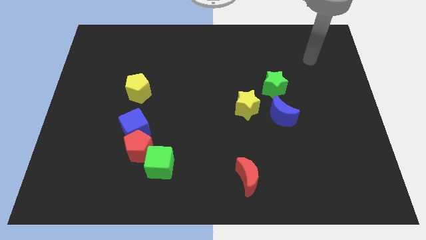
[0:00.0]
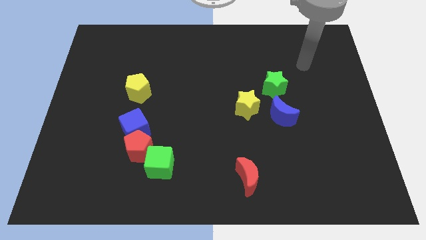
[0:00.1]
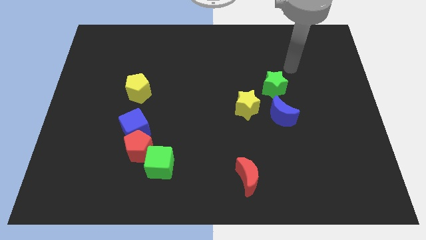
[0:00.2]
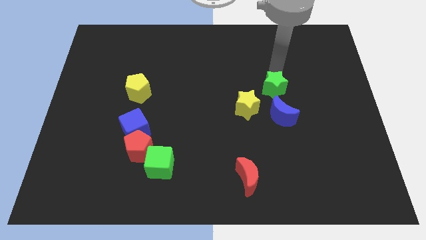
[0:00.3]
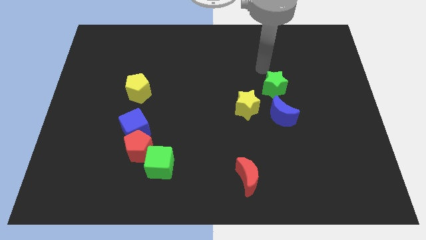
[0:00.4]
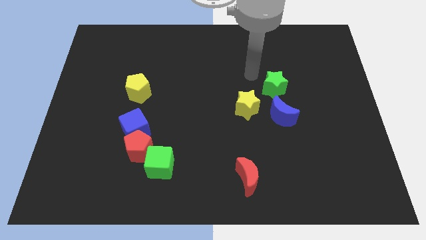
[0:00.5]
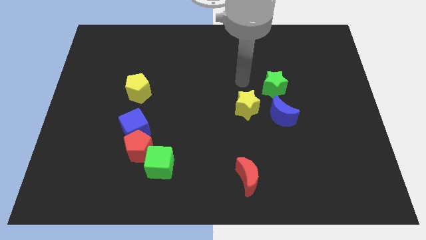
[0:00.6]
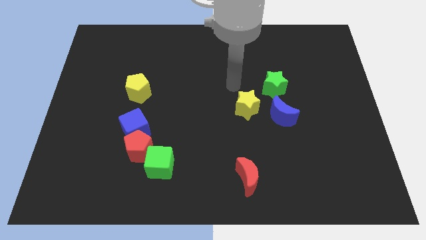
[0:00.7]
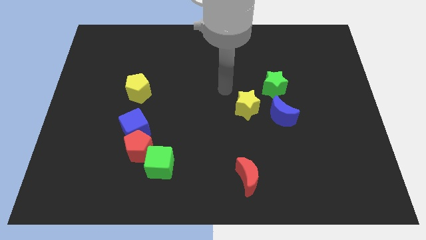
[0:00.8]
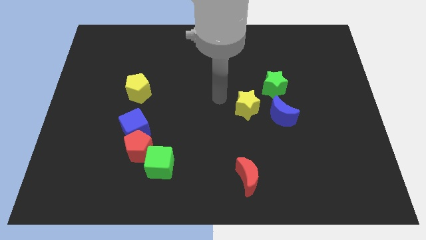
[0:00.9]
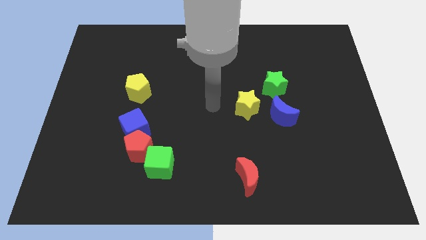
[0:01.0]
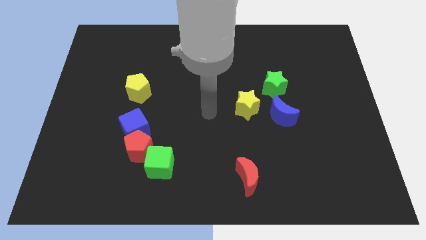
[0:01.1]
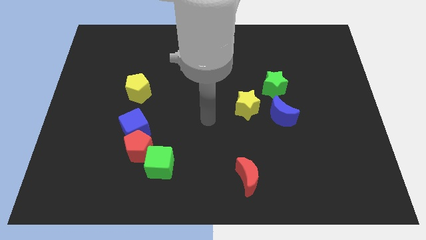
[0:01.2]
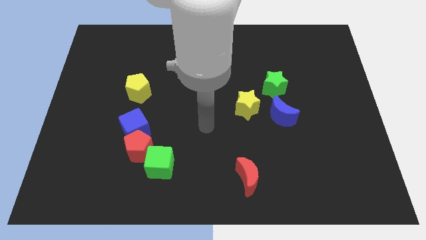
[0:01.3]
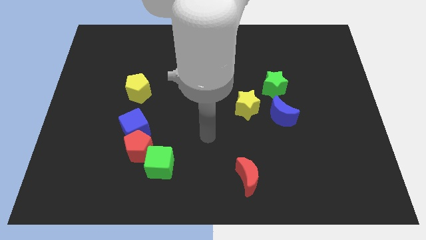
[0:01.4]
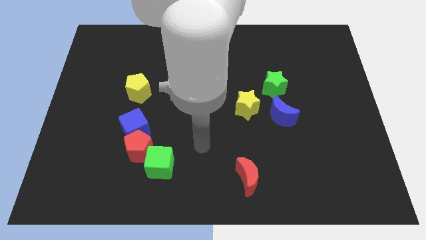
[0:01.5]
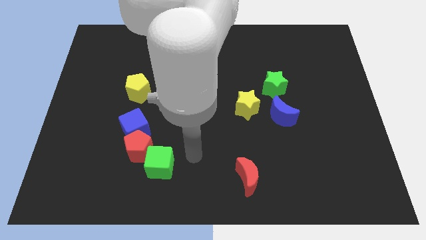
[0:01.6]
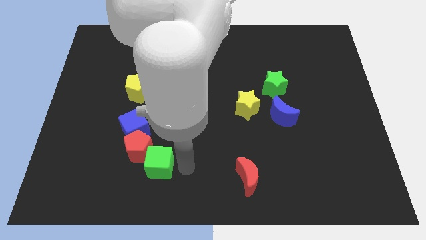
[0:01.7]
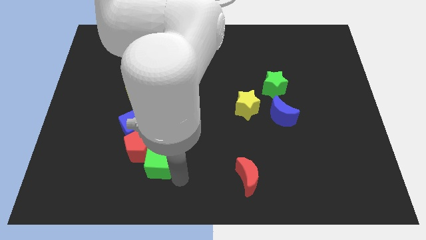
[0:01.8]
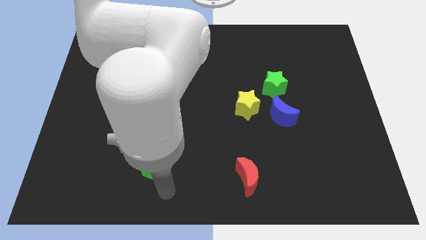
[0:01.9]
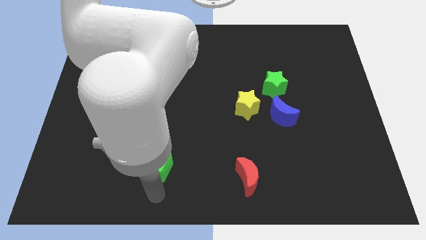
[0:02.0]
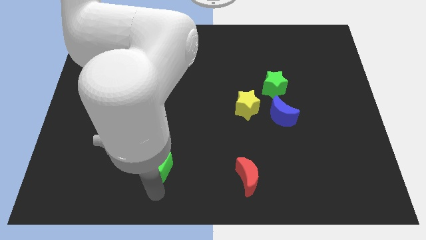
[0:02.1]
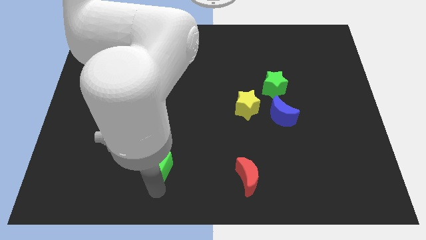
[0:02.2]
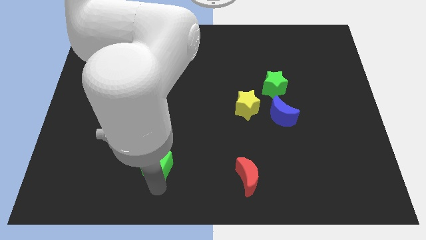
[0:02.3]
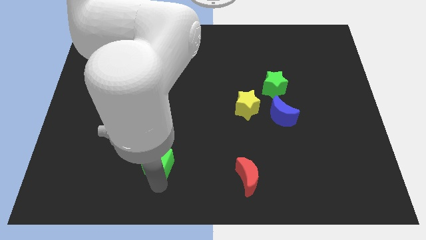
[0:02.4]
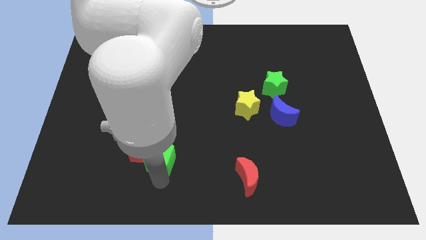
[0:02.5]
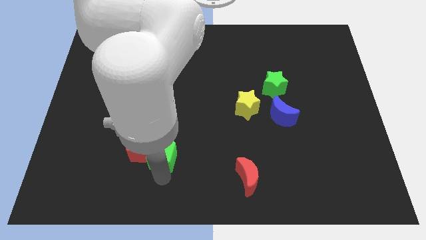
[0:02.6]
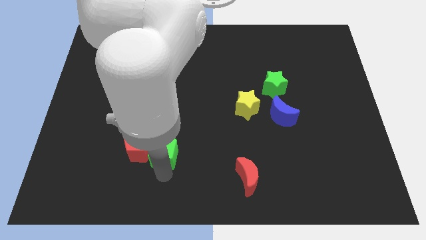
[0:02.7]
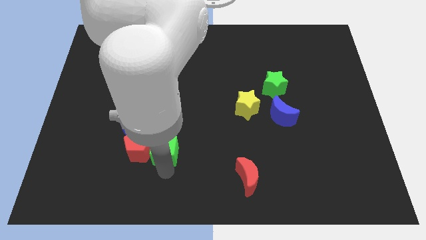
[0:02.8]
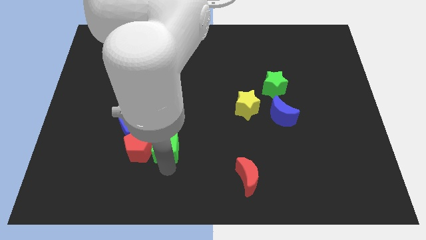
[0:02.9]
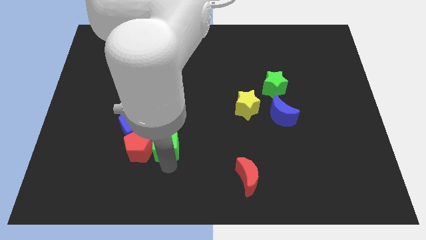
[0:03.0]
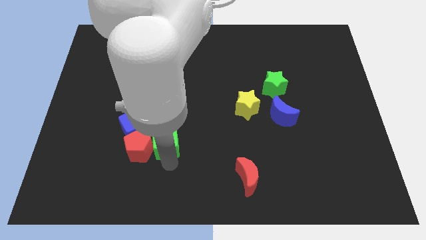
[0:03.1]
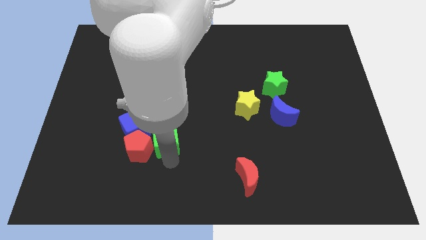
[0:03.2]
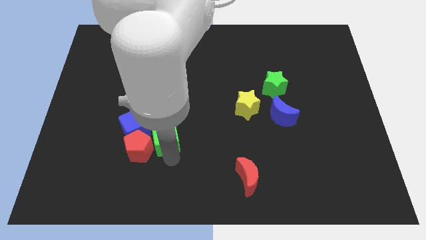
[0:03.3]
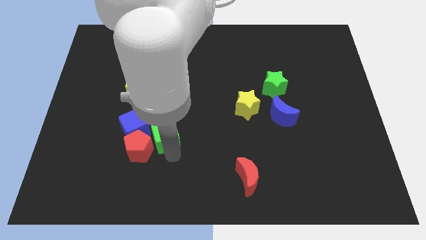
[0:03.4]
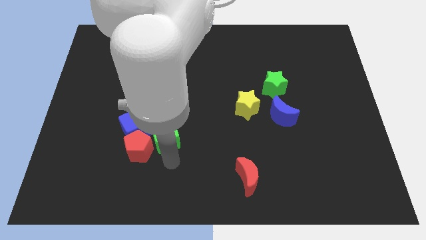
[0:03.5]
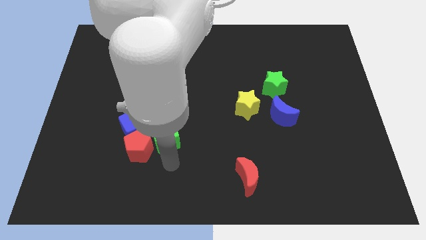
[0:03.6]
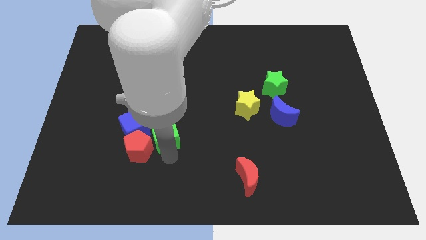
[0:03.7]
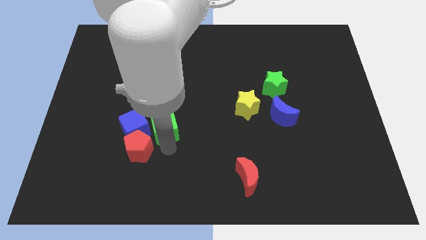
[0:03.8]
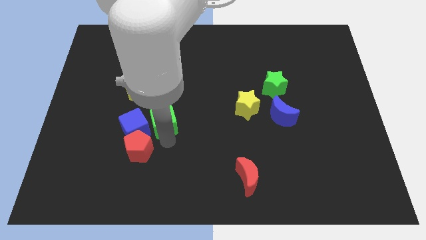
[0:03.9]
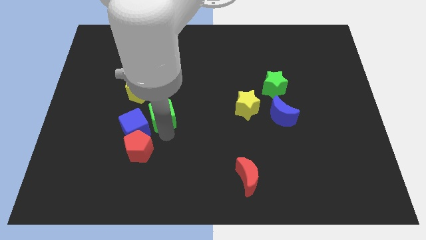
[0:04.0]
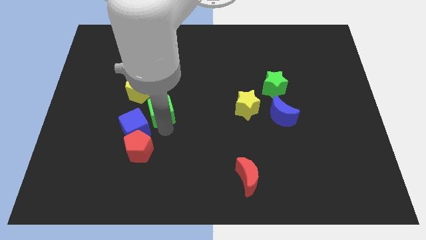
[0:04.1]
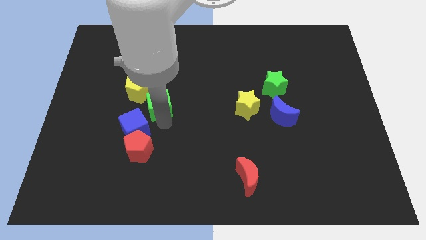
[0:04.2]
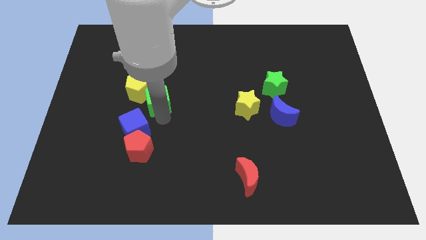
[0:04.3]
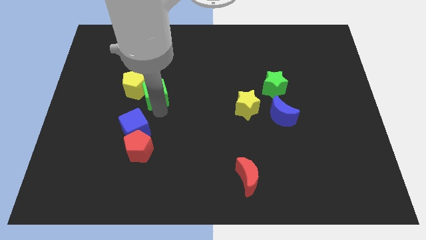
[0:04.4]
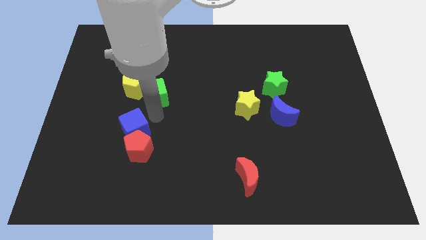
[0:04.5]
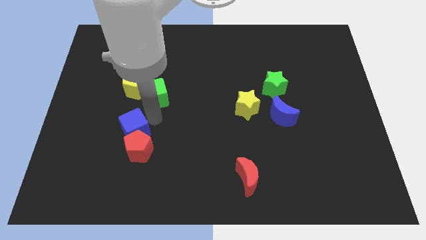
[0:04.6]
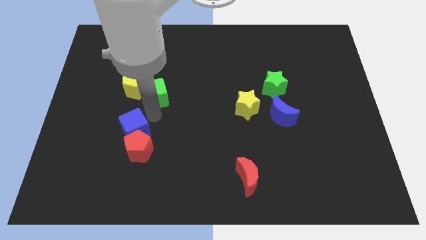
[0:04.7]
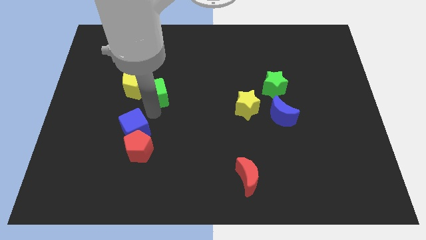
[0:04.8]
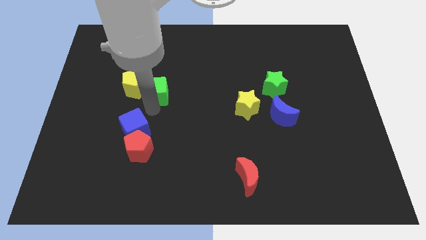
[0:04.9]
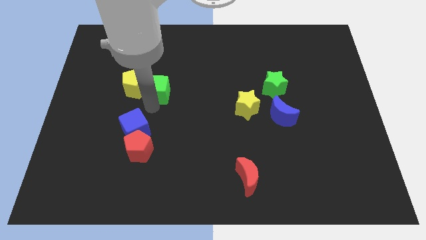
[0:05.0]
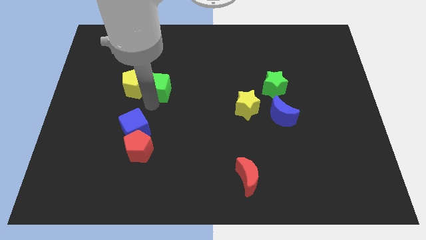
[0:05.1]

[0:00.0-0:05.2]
slide the green cube to the top right of the yellow pentagon

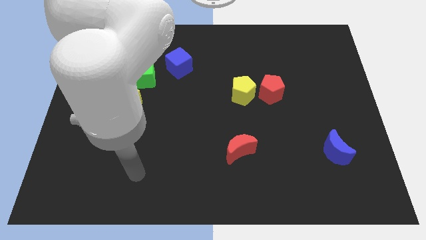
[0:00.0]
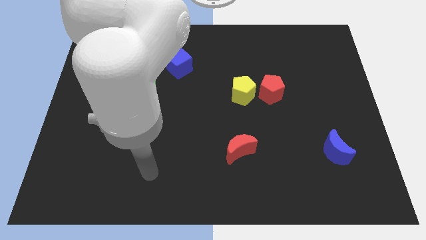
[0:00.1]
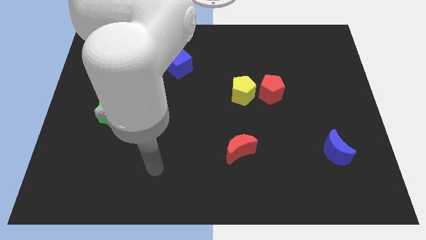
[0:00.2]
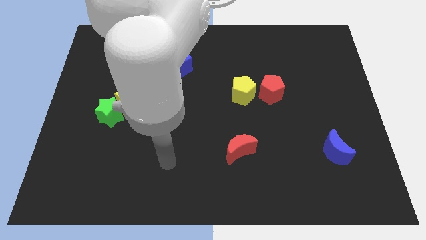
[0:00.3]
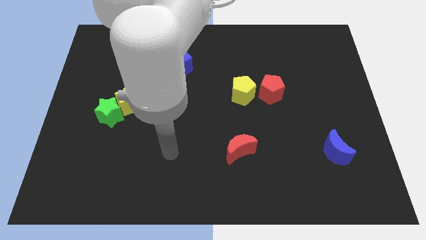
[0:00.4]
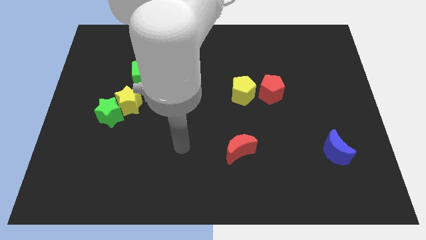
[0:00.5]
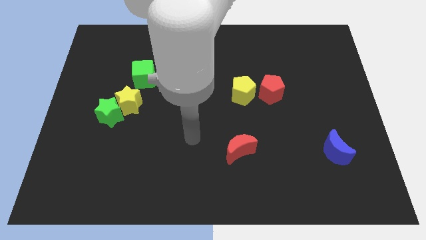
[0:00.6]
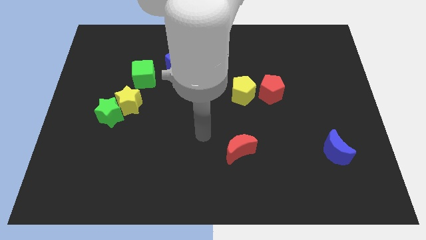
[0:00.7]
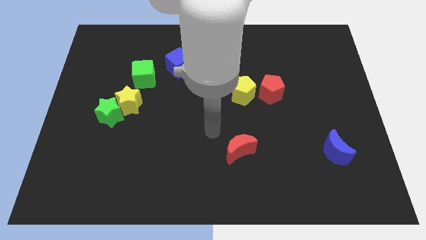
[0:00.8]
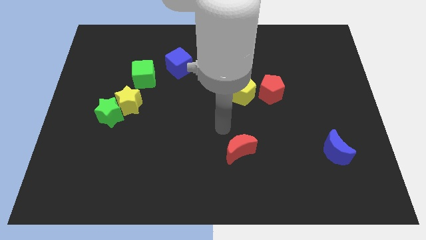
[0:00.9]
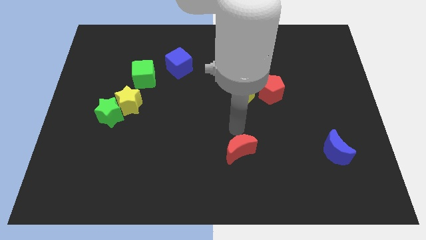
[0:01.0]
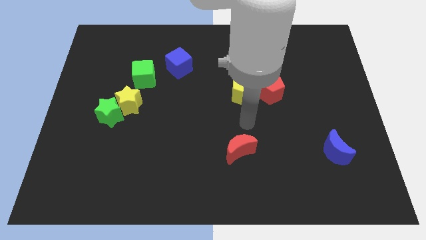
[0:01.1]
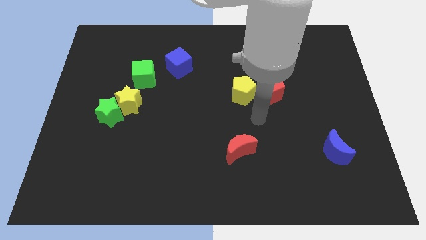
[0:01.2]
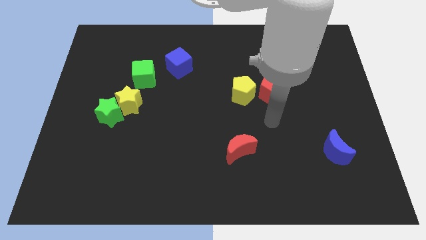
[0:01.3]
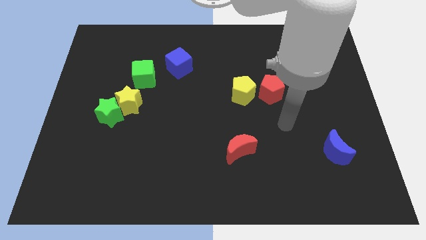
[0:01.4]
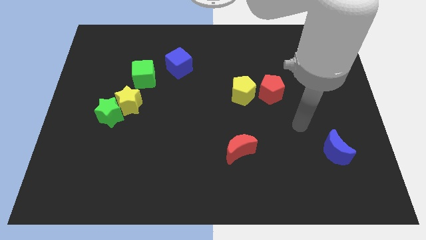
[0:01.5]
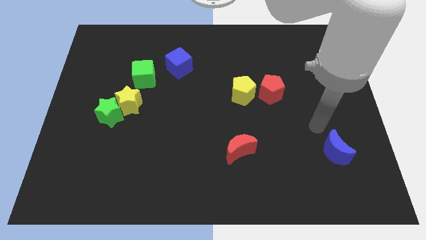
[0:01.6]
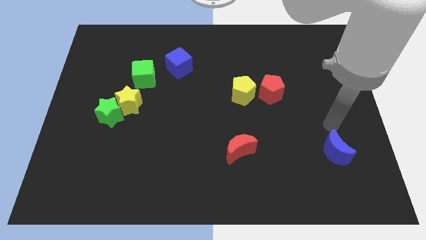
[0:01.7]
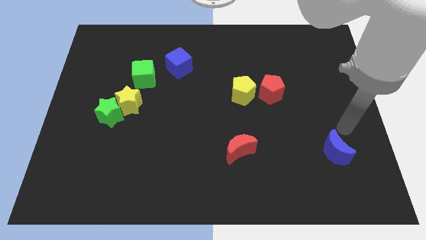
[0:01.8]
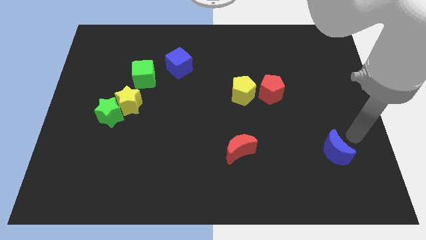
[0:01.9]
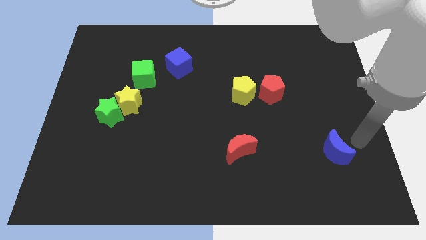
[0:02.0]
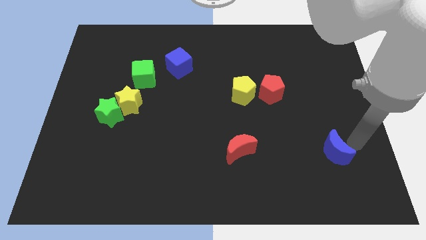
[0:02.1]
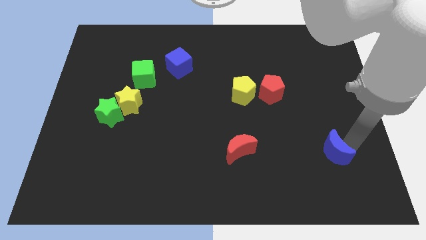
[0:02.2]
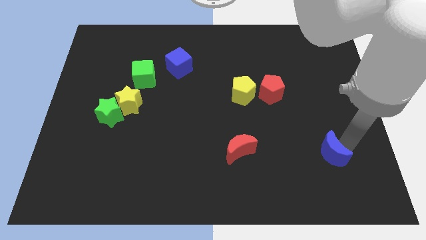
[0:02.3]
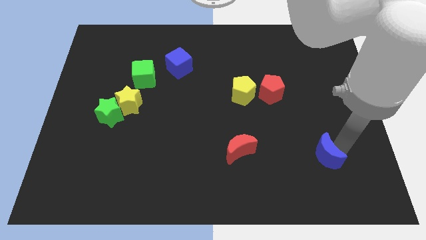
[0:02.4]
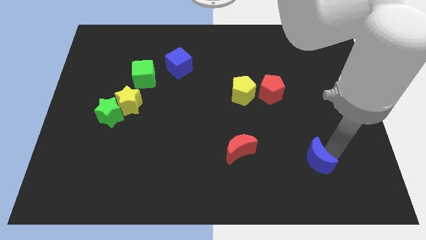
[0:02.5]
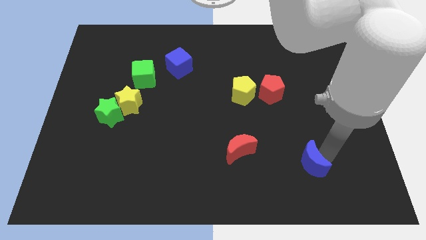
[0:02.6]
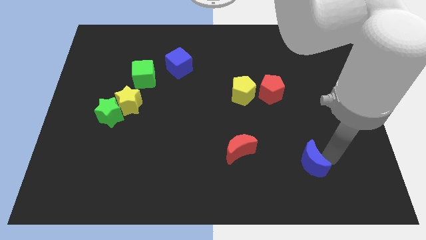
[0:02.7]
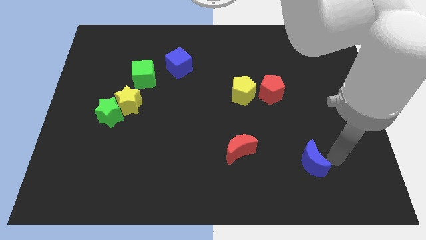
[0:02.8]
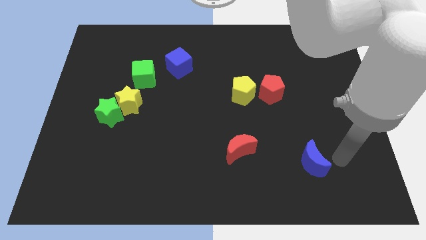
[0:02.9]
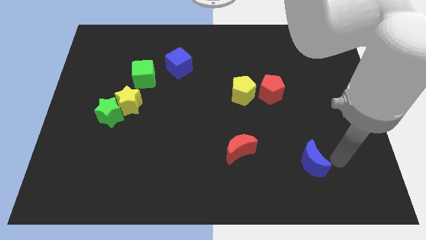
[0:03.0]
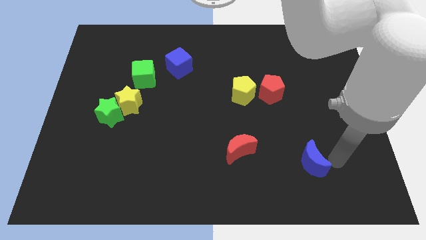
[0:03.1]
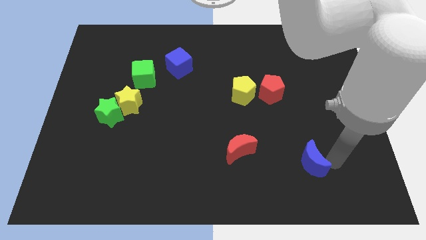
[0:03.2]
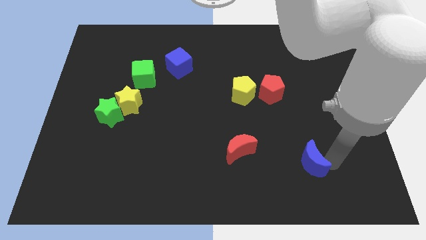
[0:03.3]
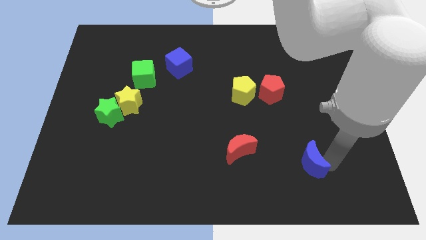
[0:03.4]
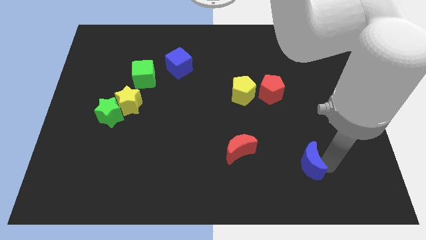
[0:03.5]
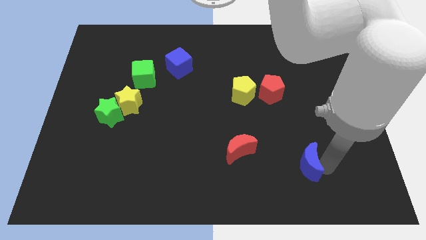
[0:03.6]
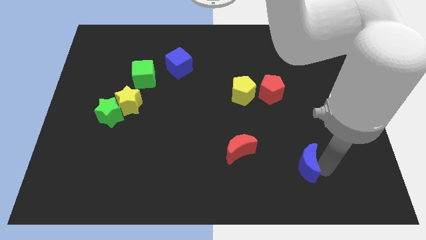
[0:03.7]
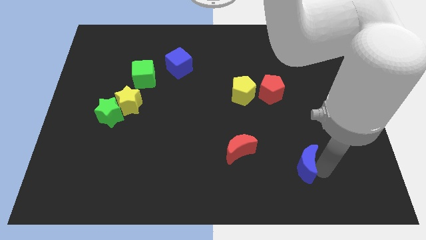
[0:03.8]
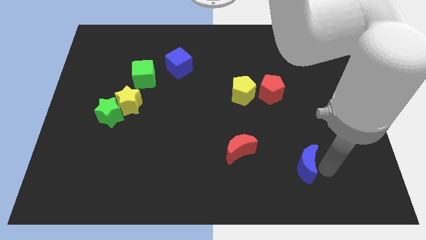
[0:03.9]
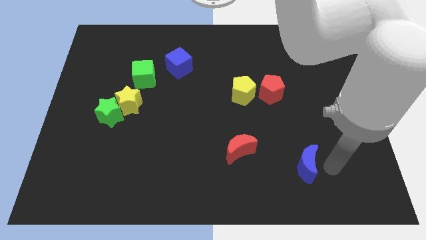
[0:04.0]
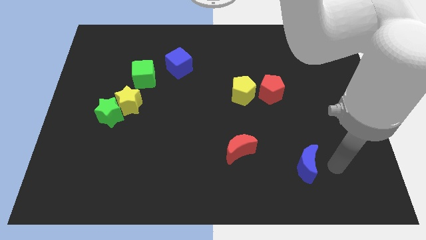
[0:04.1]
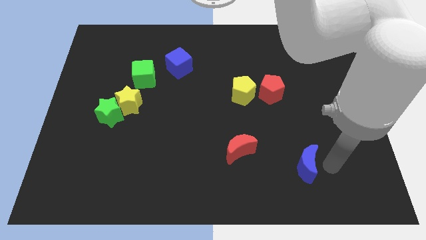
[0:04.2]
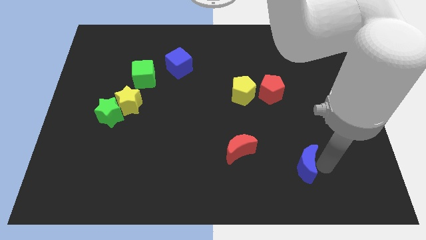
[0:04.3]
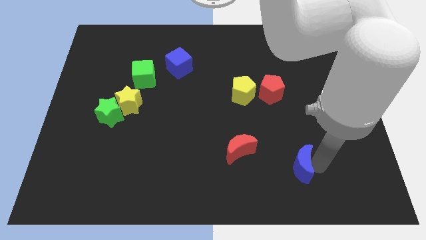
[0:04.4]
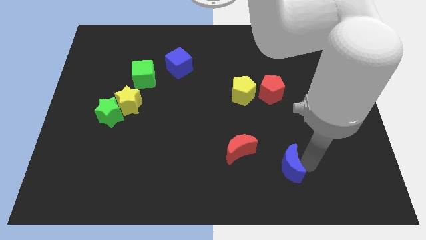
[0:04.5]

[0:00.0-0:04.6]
slide the blue moon diagonally down and to the right of the red moon
